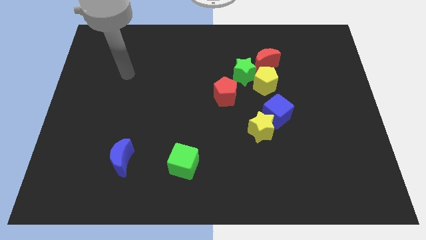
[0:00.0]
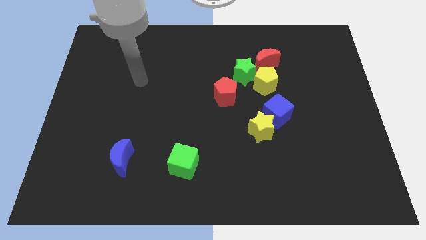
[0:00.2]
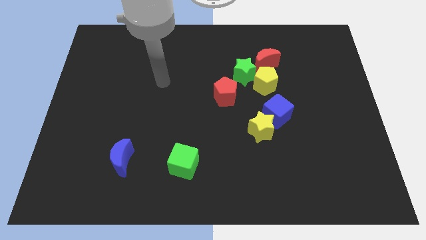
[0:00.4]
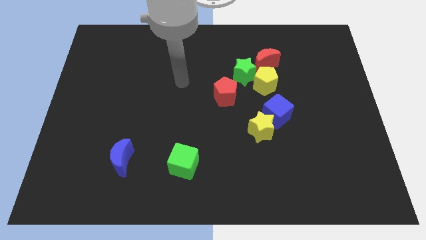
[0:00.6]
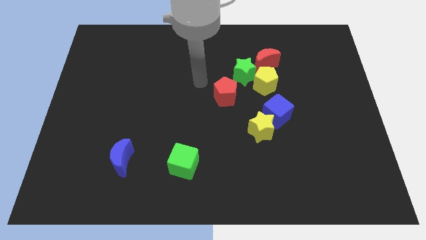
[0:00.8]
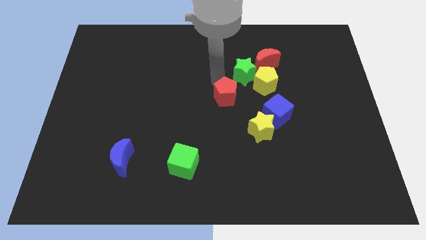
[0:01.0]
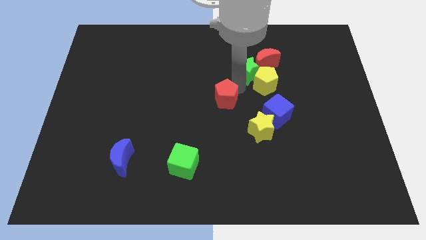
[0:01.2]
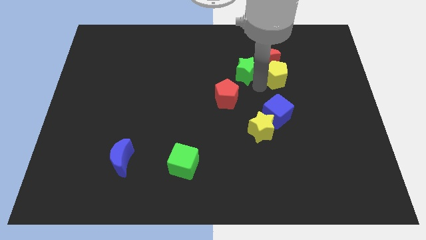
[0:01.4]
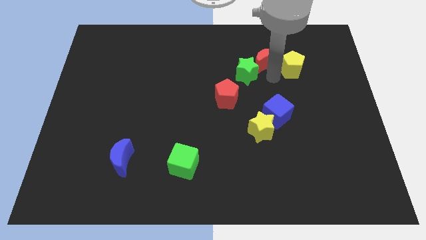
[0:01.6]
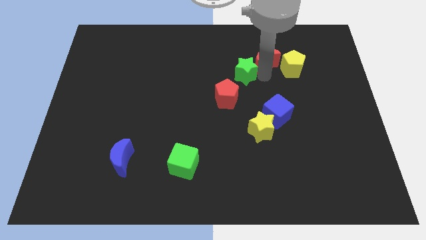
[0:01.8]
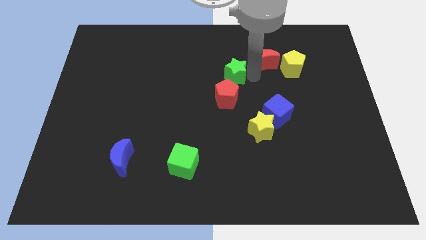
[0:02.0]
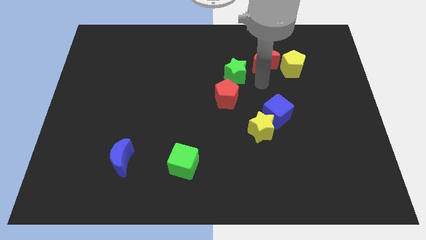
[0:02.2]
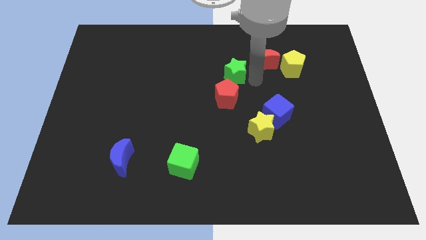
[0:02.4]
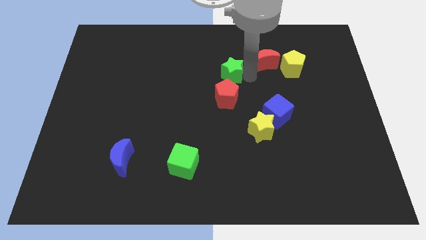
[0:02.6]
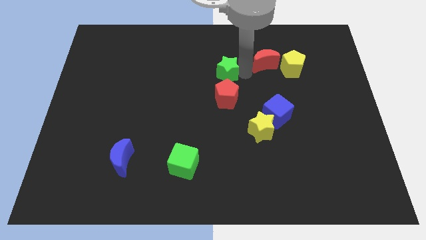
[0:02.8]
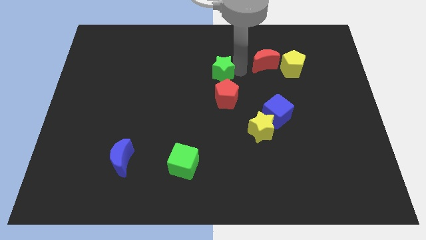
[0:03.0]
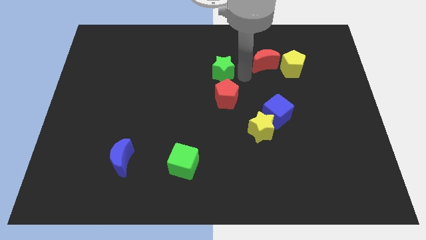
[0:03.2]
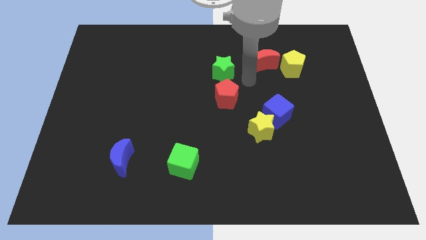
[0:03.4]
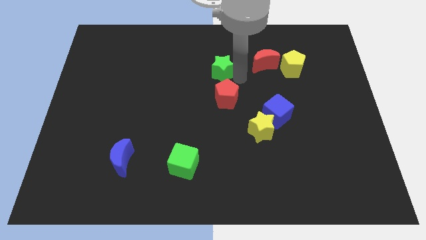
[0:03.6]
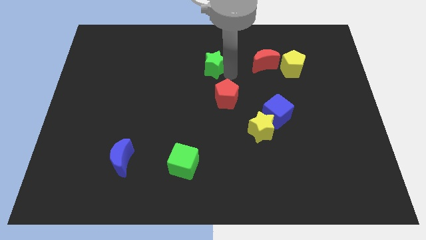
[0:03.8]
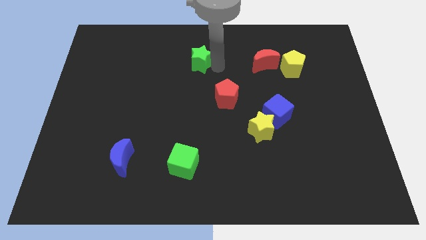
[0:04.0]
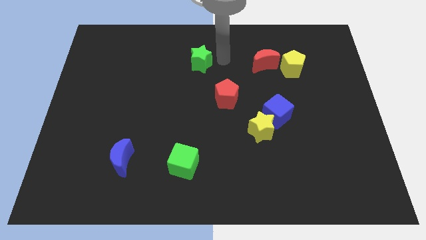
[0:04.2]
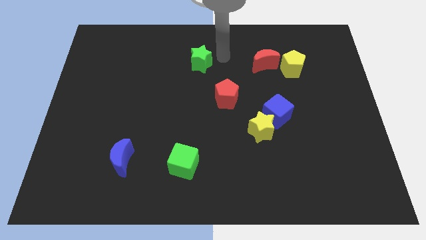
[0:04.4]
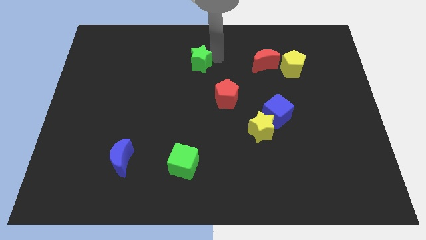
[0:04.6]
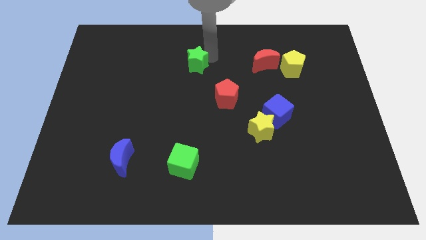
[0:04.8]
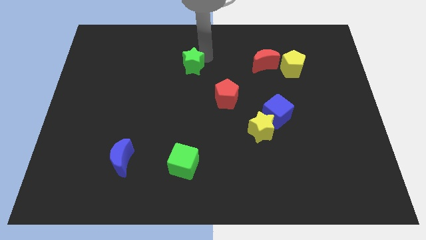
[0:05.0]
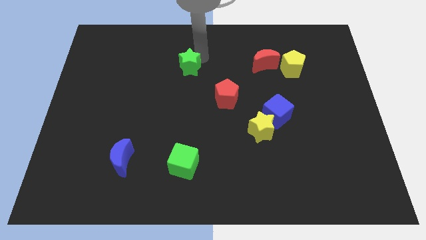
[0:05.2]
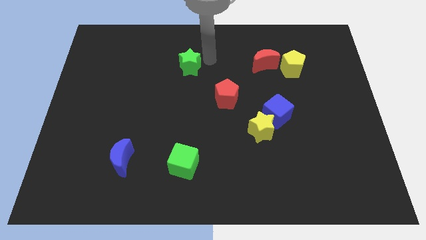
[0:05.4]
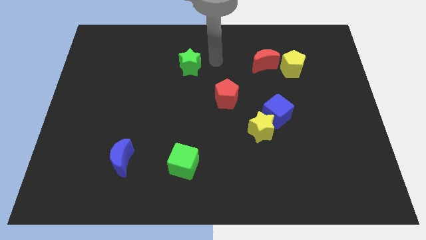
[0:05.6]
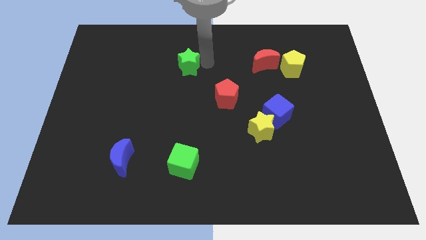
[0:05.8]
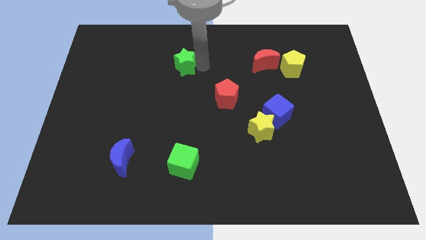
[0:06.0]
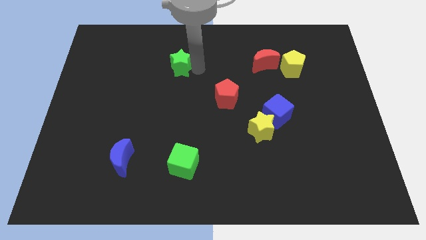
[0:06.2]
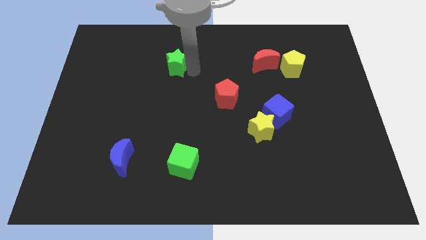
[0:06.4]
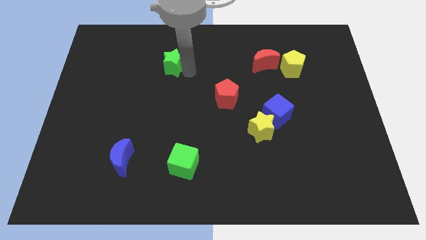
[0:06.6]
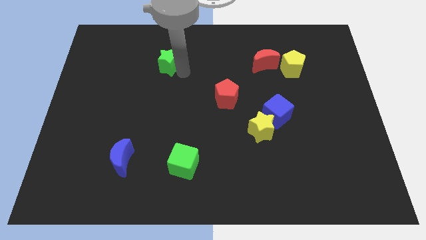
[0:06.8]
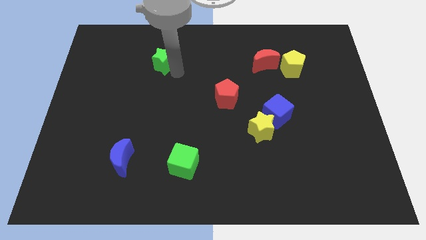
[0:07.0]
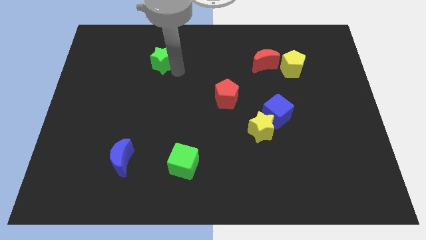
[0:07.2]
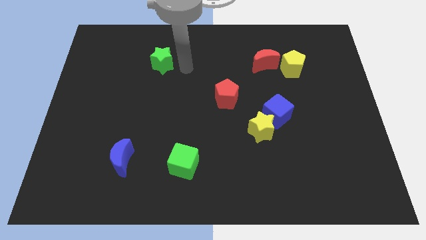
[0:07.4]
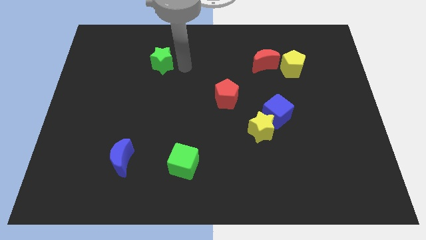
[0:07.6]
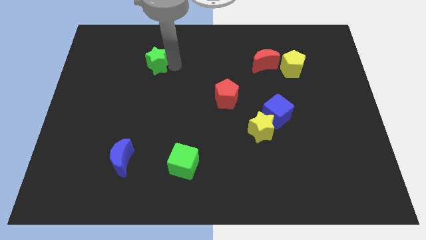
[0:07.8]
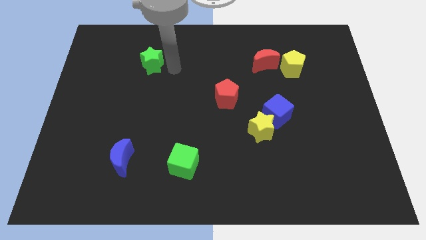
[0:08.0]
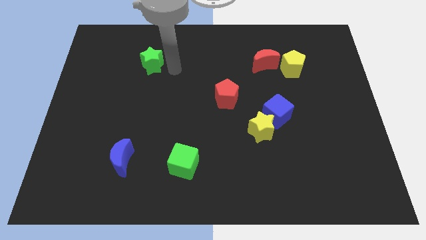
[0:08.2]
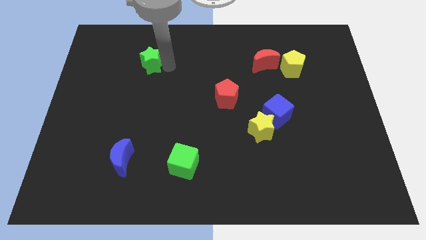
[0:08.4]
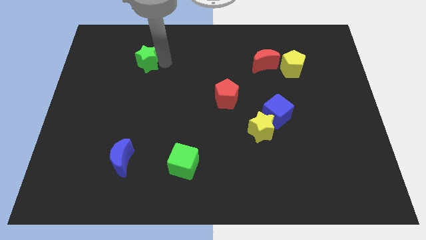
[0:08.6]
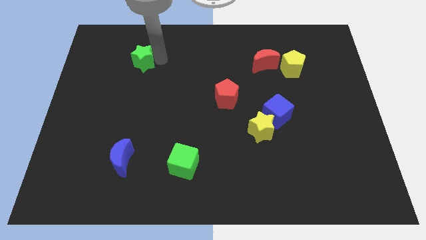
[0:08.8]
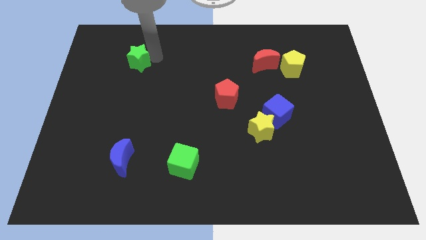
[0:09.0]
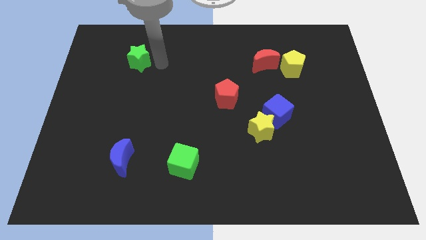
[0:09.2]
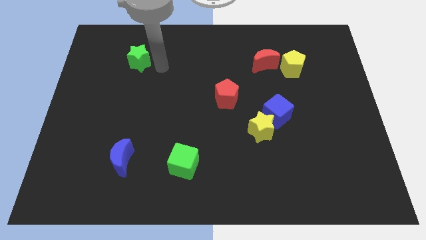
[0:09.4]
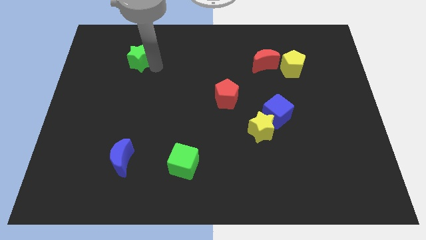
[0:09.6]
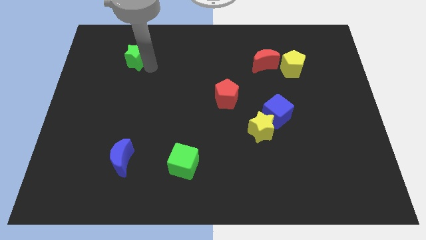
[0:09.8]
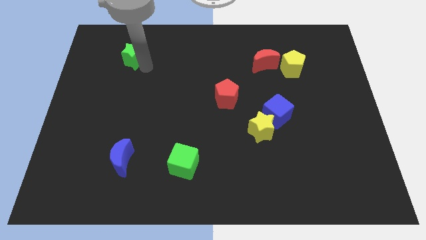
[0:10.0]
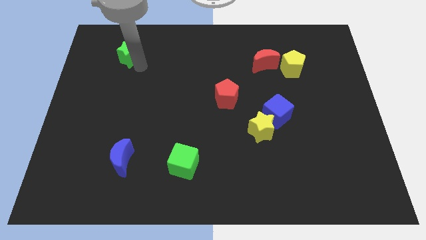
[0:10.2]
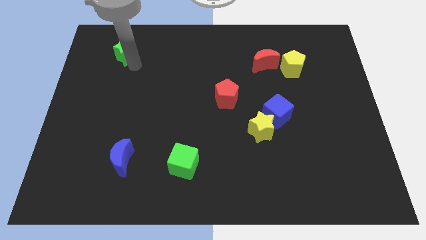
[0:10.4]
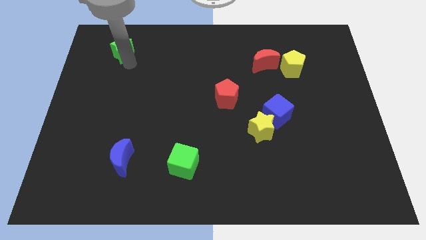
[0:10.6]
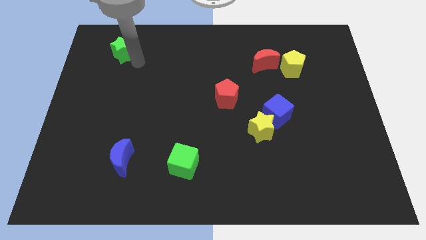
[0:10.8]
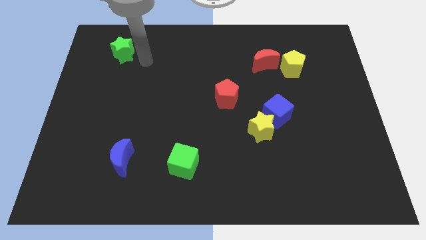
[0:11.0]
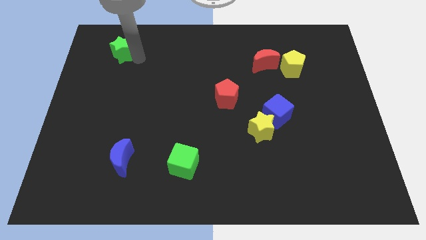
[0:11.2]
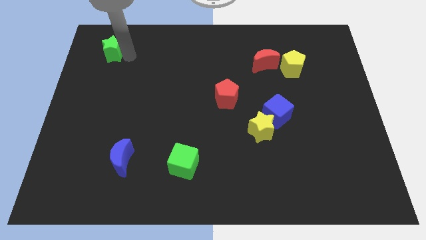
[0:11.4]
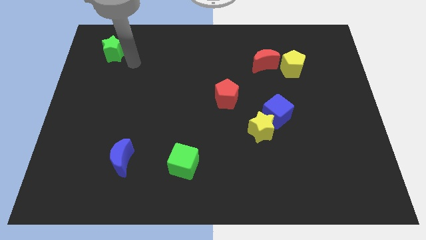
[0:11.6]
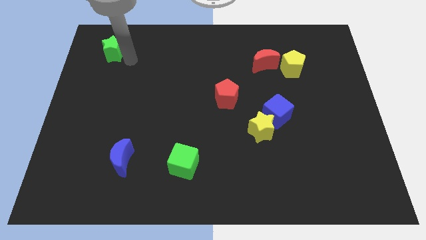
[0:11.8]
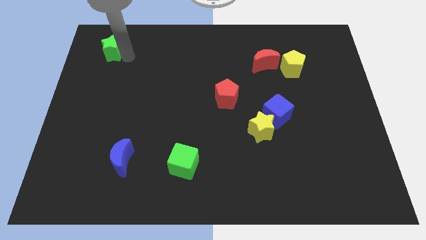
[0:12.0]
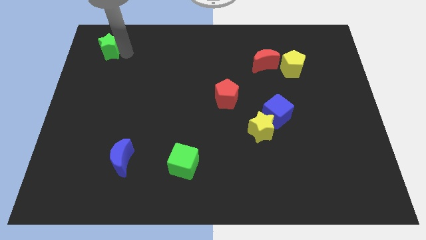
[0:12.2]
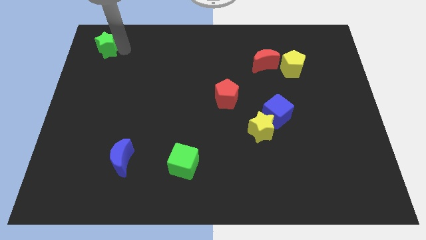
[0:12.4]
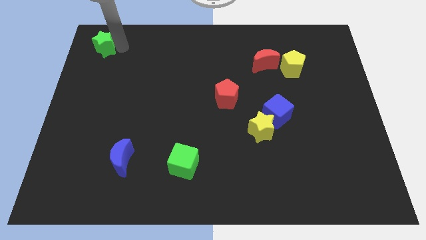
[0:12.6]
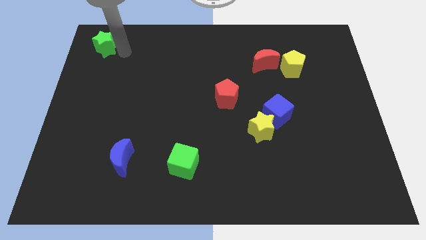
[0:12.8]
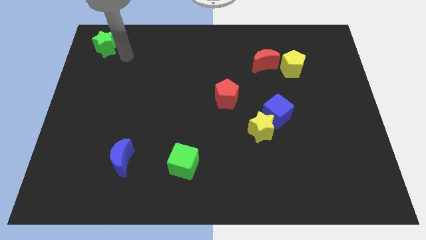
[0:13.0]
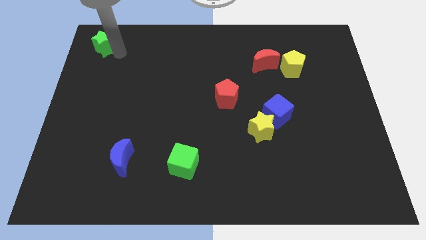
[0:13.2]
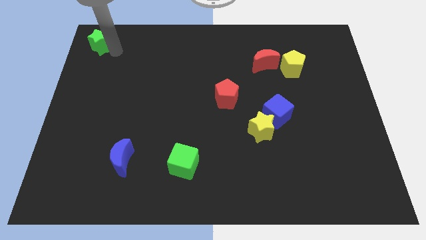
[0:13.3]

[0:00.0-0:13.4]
move the green star to the top left

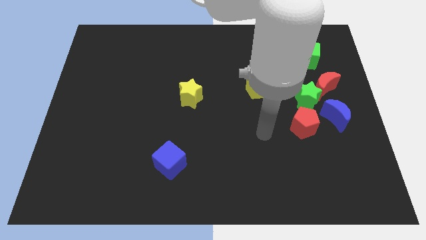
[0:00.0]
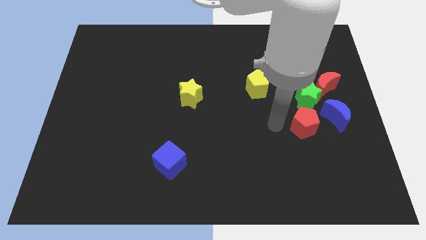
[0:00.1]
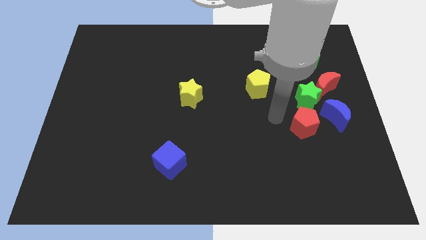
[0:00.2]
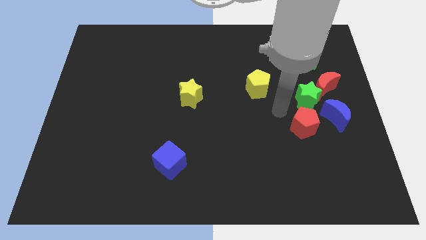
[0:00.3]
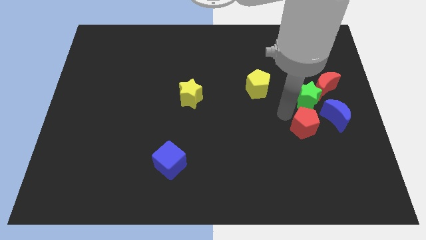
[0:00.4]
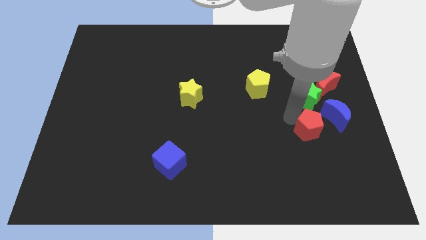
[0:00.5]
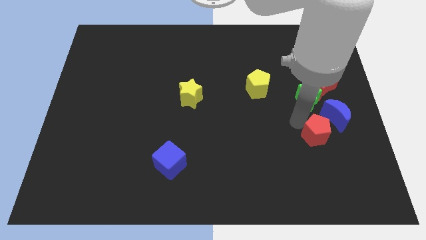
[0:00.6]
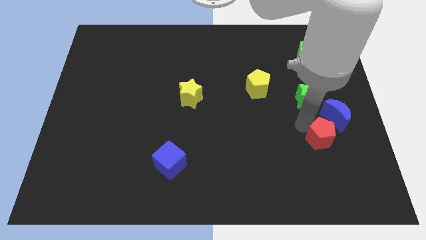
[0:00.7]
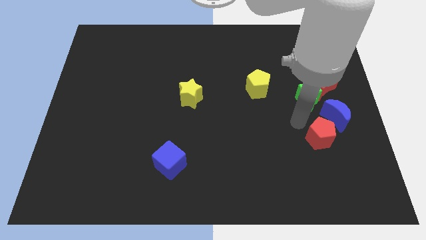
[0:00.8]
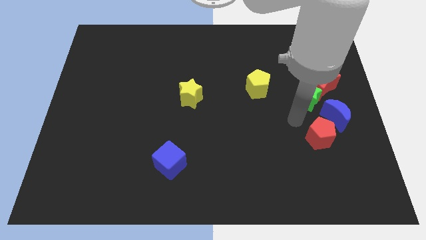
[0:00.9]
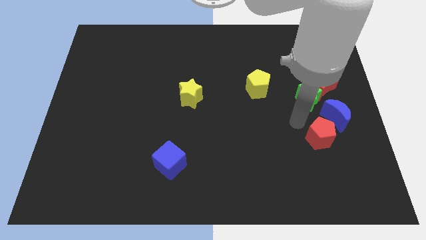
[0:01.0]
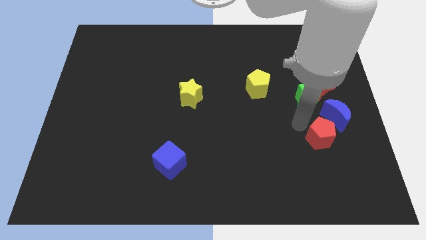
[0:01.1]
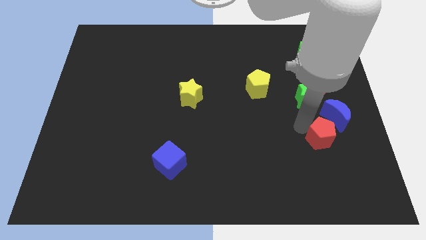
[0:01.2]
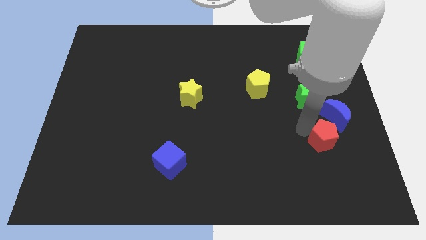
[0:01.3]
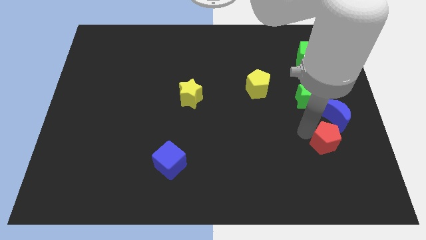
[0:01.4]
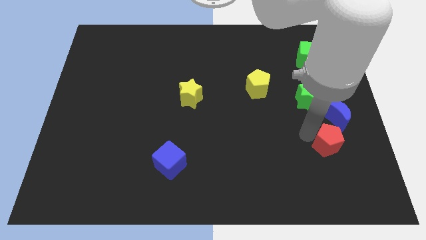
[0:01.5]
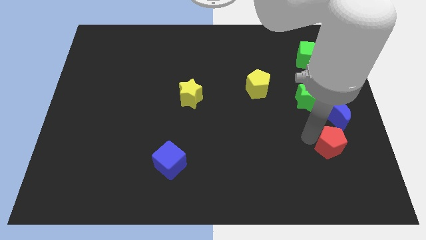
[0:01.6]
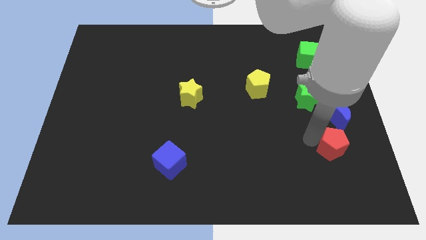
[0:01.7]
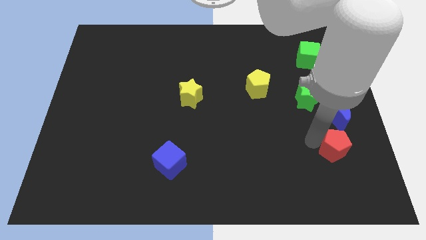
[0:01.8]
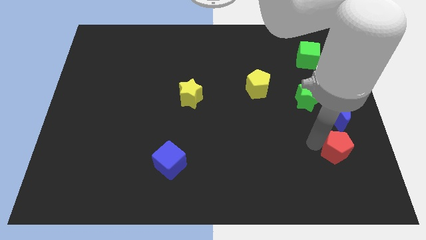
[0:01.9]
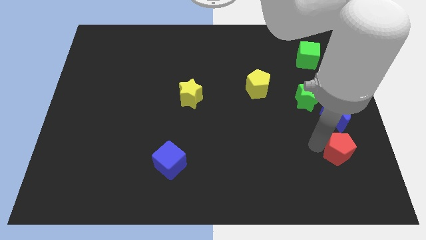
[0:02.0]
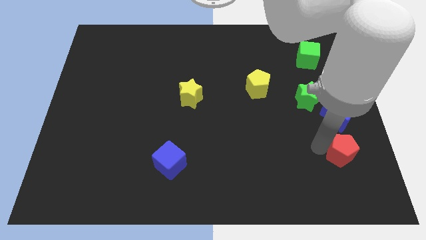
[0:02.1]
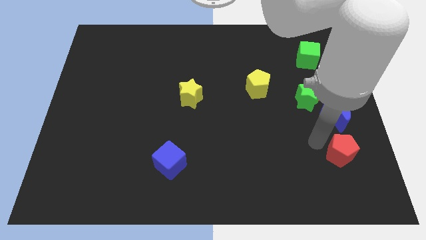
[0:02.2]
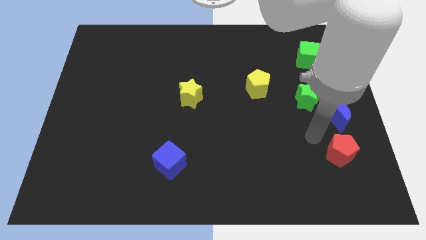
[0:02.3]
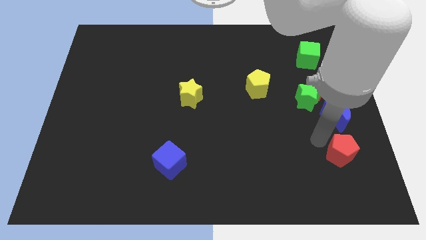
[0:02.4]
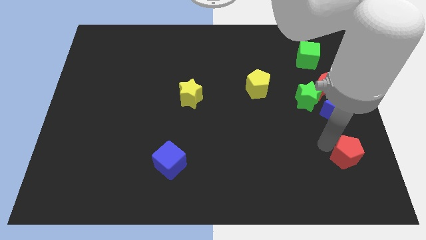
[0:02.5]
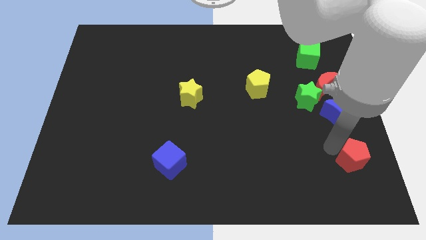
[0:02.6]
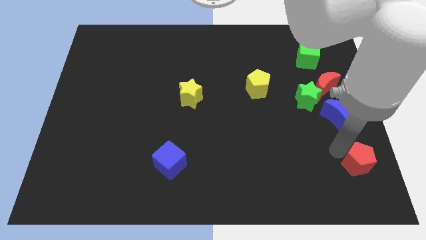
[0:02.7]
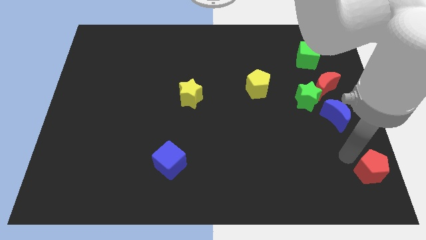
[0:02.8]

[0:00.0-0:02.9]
push the red pentagon to the bottom right of the board
